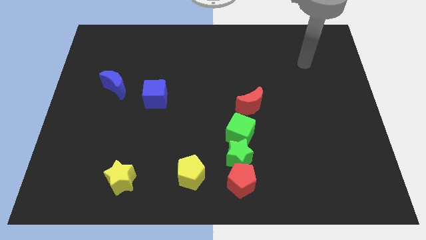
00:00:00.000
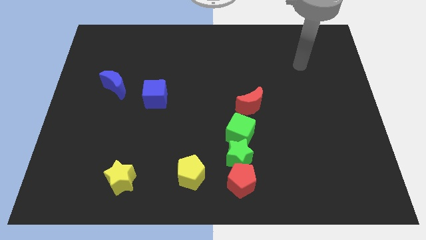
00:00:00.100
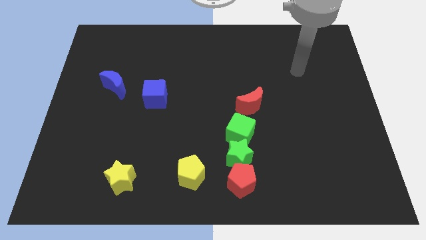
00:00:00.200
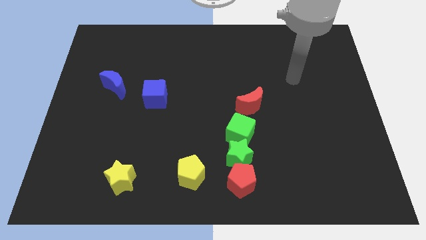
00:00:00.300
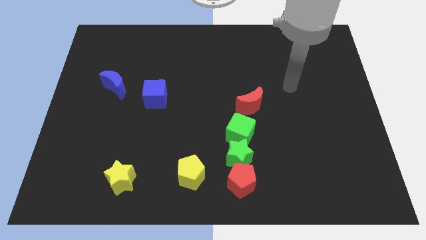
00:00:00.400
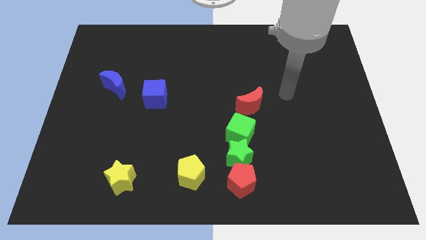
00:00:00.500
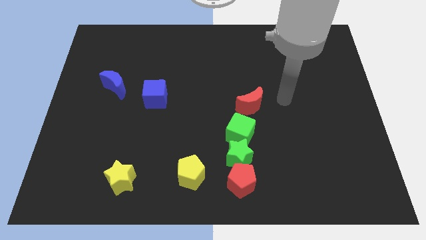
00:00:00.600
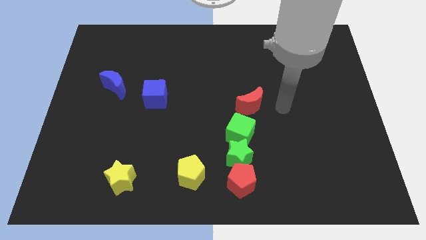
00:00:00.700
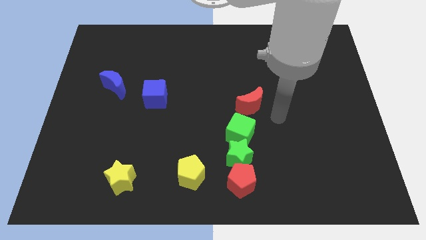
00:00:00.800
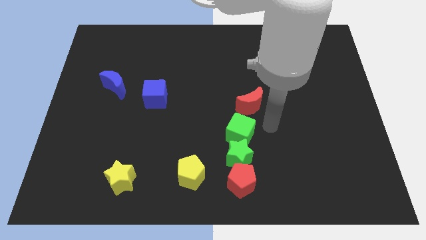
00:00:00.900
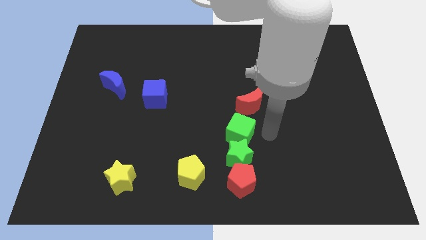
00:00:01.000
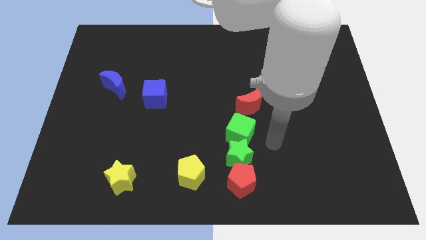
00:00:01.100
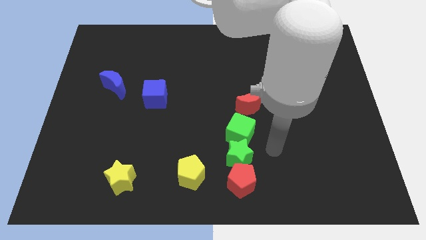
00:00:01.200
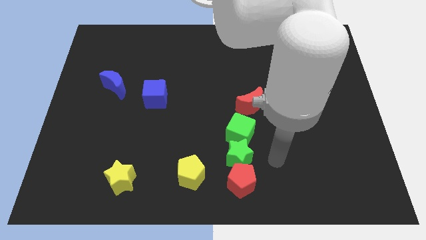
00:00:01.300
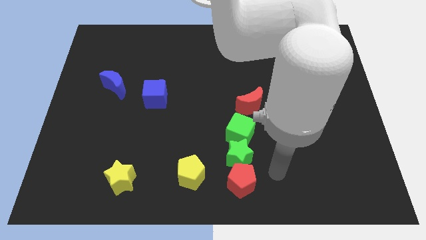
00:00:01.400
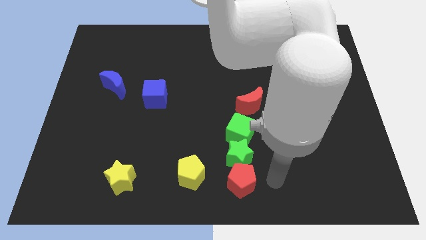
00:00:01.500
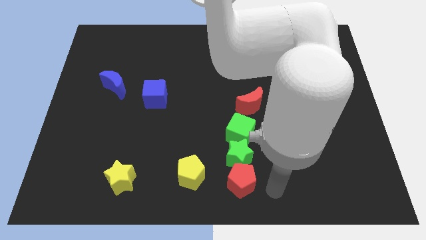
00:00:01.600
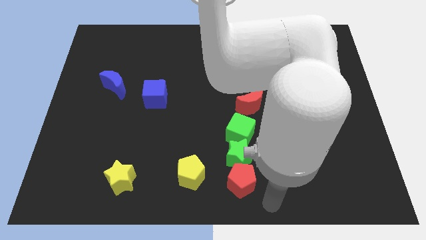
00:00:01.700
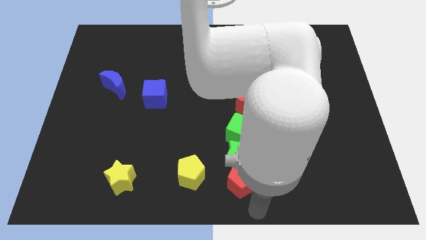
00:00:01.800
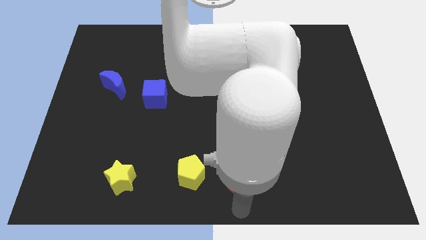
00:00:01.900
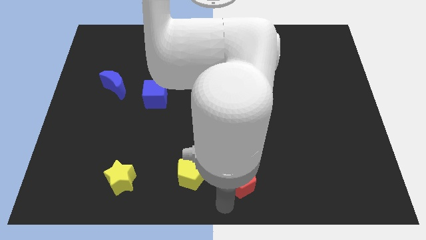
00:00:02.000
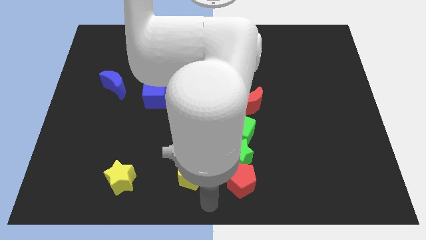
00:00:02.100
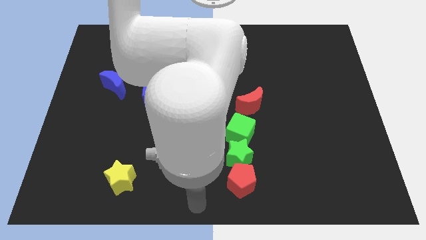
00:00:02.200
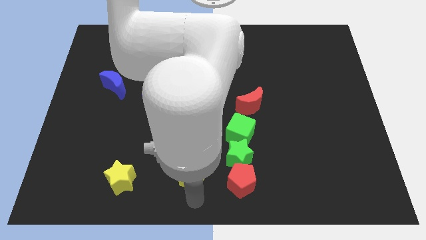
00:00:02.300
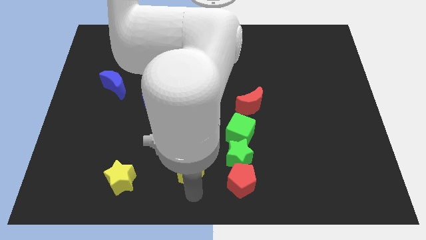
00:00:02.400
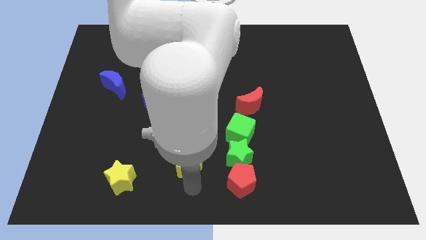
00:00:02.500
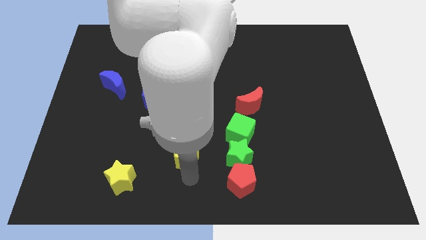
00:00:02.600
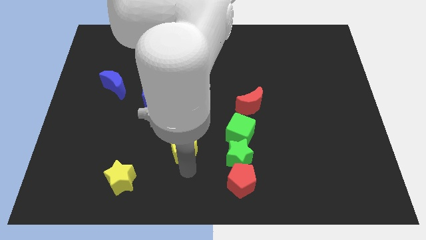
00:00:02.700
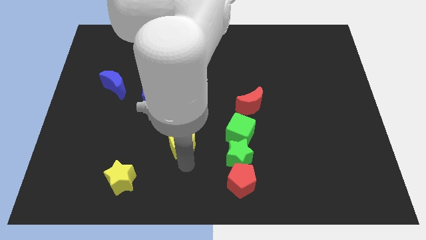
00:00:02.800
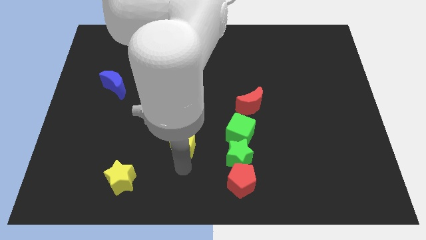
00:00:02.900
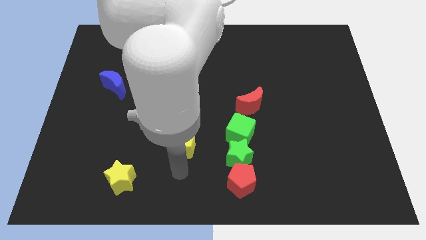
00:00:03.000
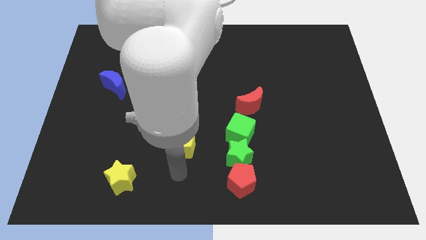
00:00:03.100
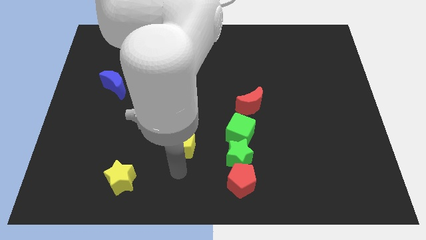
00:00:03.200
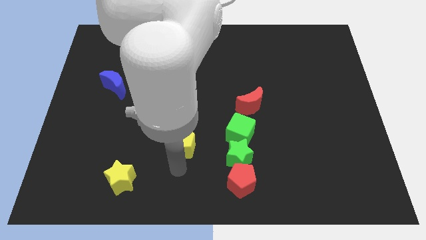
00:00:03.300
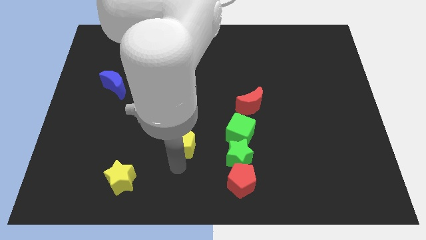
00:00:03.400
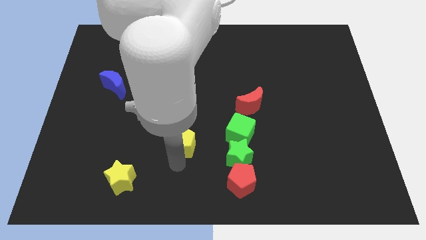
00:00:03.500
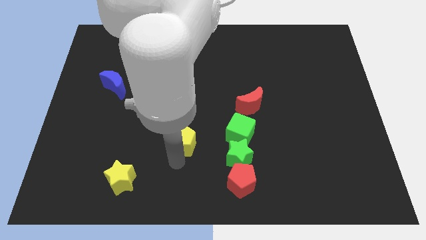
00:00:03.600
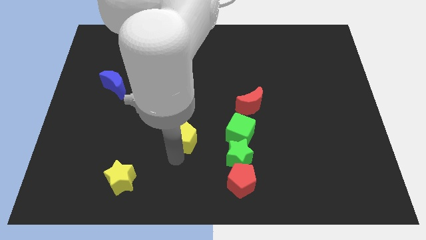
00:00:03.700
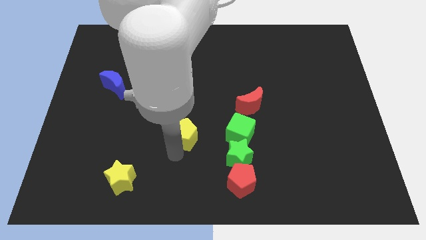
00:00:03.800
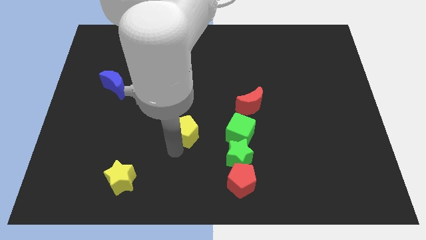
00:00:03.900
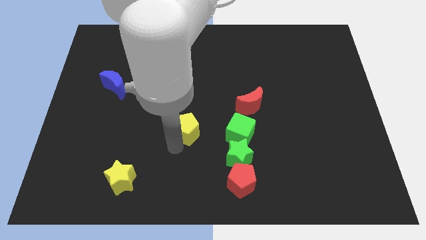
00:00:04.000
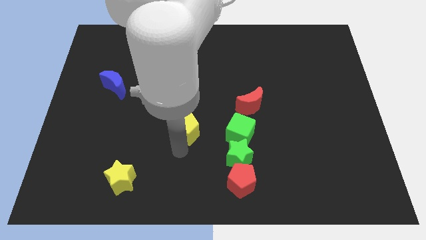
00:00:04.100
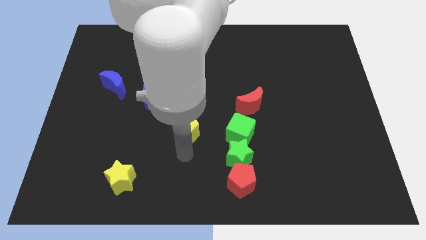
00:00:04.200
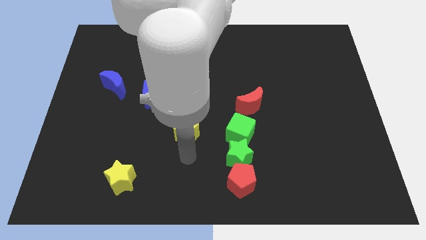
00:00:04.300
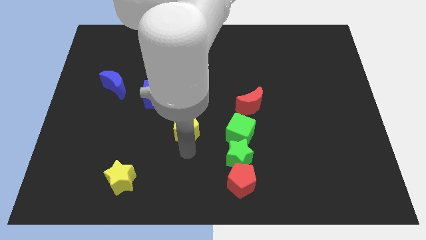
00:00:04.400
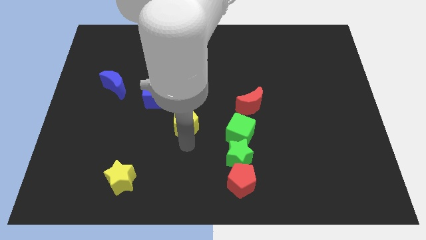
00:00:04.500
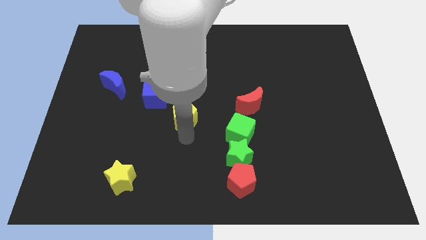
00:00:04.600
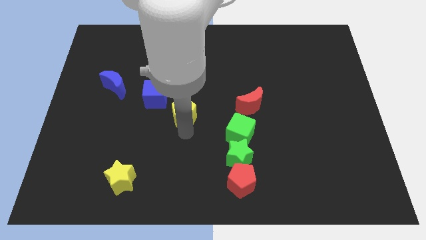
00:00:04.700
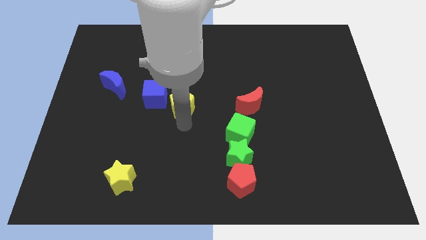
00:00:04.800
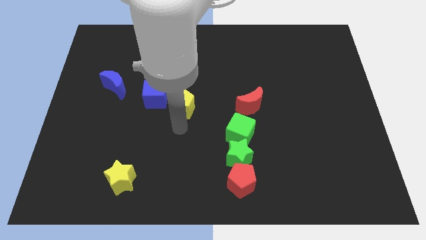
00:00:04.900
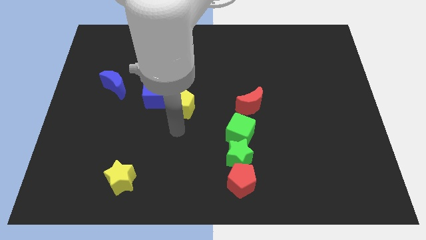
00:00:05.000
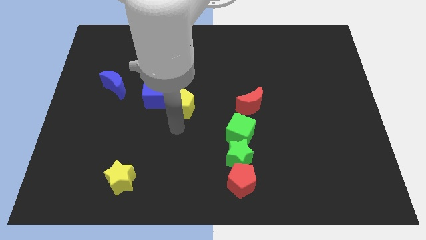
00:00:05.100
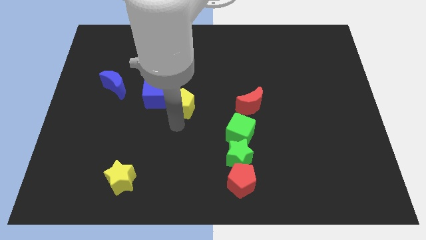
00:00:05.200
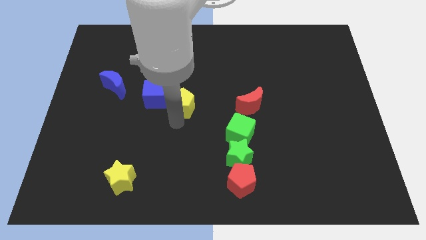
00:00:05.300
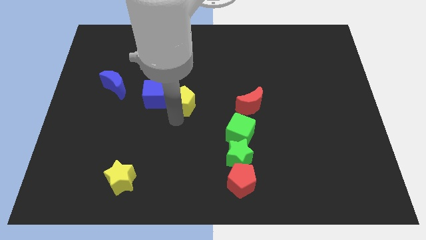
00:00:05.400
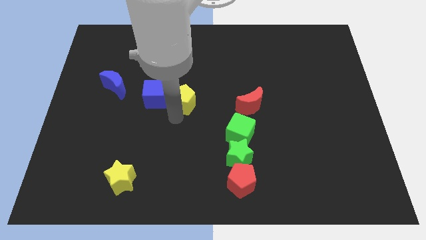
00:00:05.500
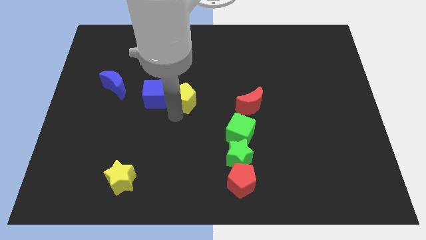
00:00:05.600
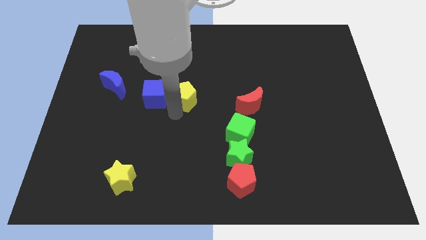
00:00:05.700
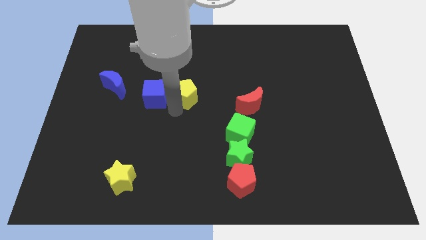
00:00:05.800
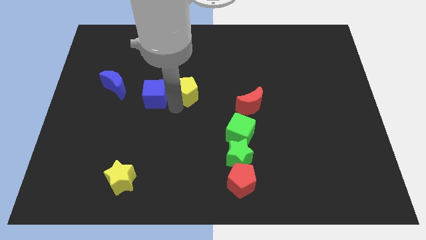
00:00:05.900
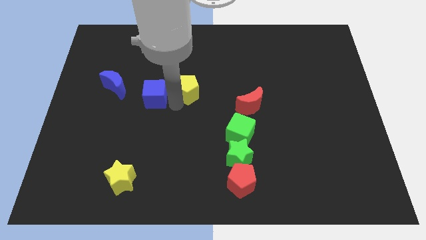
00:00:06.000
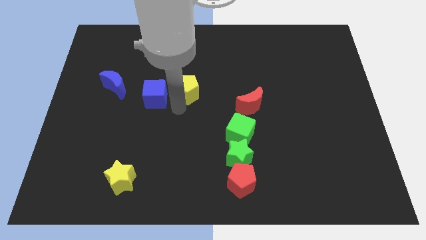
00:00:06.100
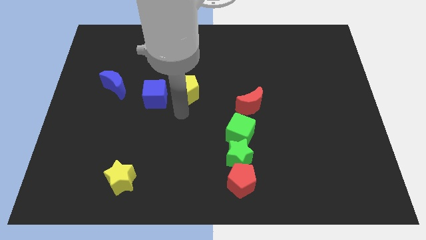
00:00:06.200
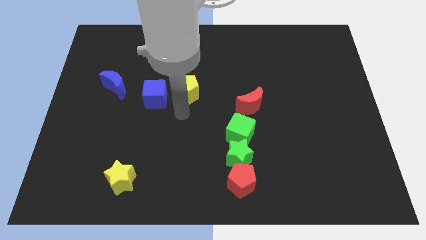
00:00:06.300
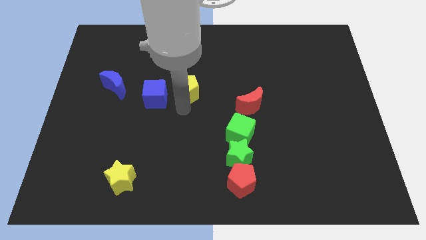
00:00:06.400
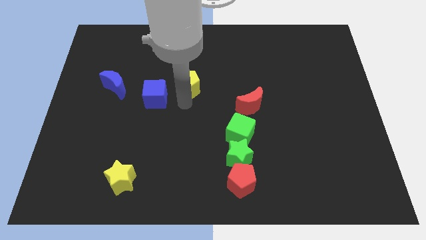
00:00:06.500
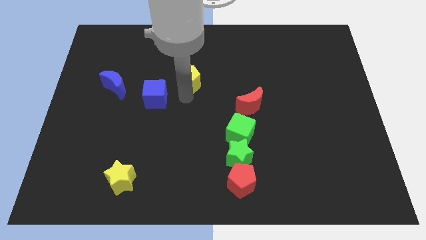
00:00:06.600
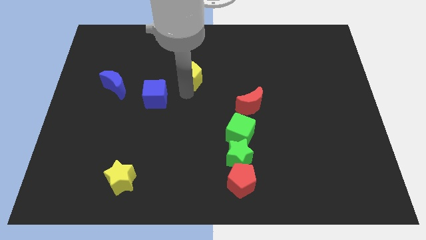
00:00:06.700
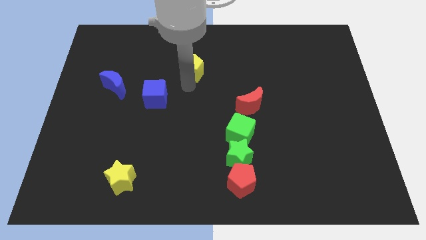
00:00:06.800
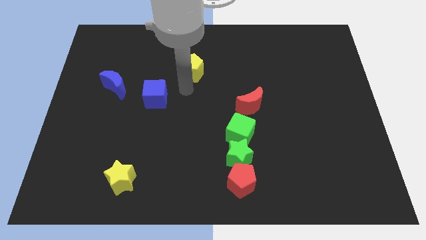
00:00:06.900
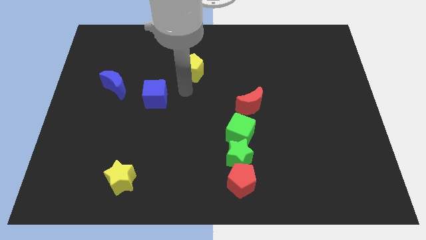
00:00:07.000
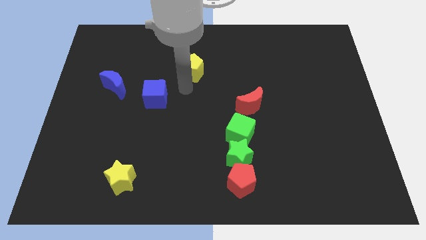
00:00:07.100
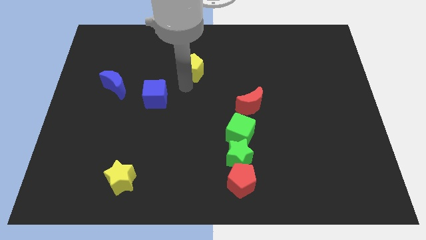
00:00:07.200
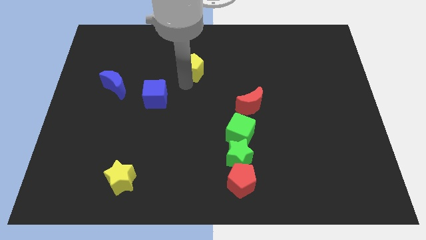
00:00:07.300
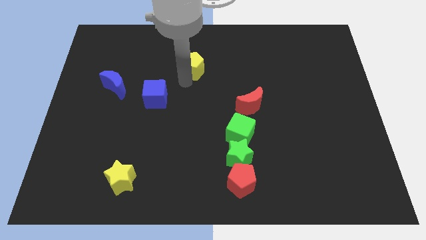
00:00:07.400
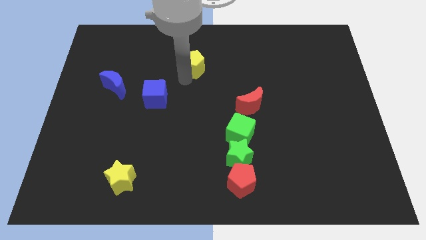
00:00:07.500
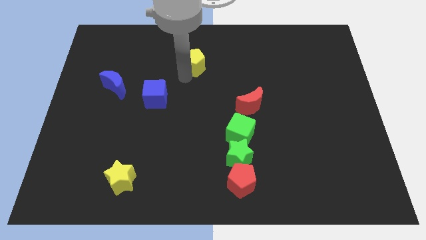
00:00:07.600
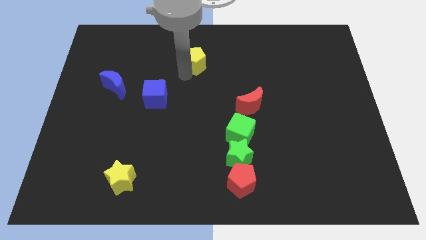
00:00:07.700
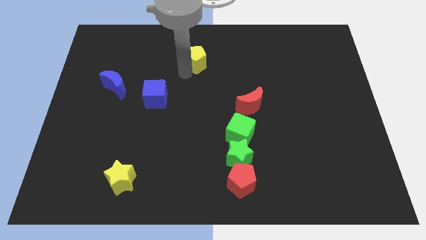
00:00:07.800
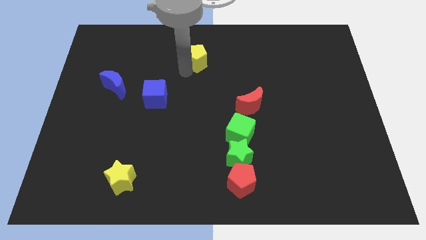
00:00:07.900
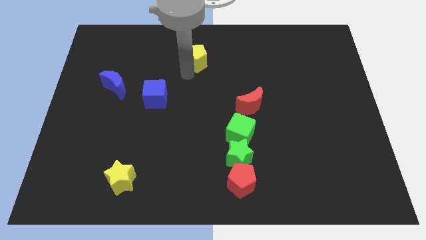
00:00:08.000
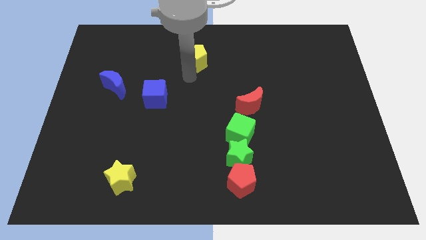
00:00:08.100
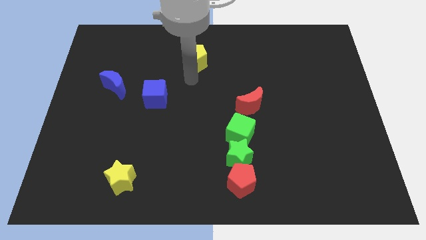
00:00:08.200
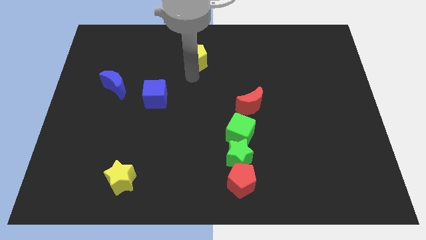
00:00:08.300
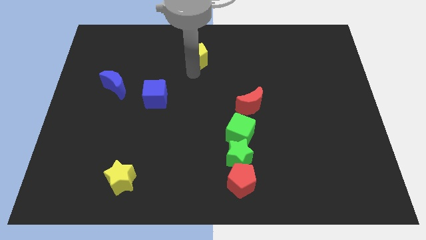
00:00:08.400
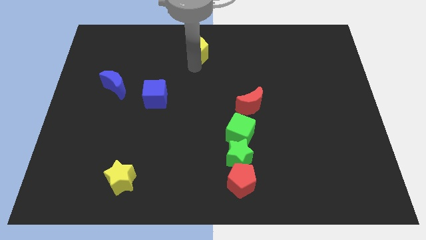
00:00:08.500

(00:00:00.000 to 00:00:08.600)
move the yellow pentagon to the towards your base
